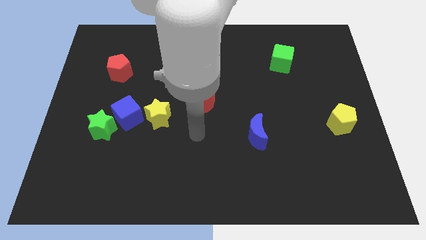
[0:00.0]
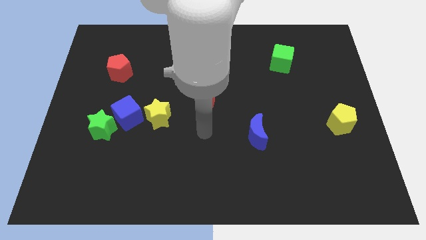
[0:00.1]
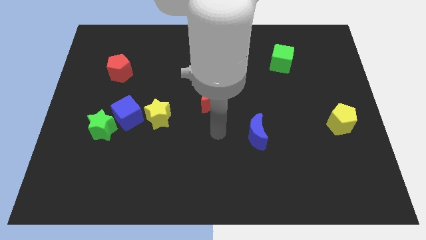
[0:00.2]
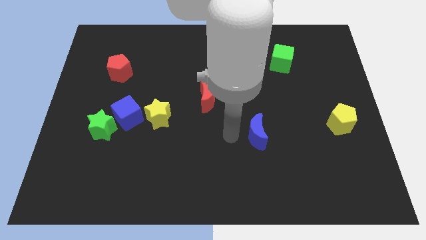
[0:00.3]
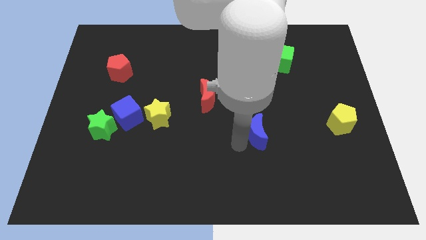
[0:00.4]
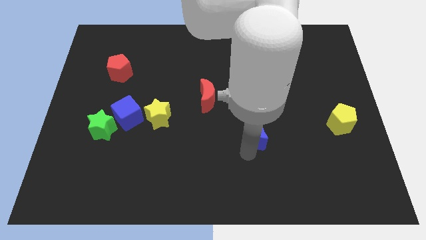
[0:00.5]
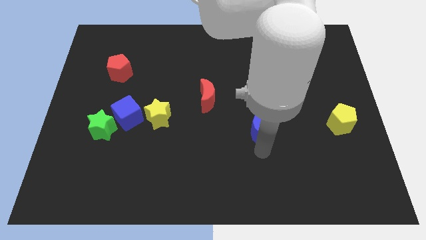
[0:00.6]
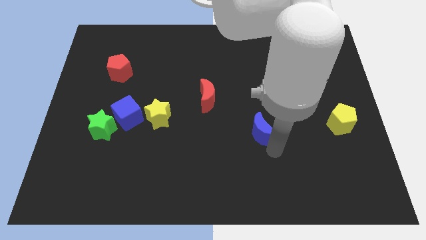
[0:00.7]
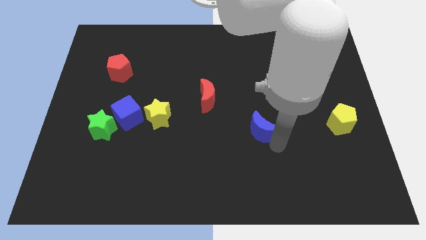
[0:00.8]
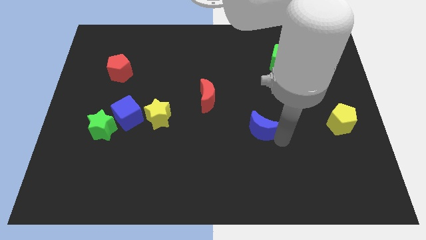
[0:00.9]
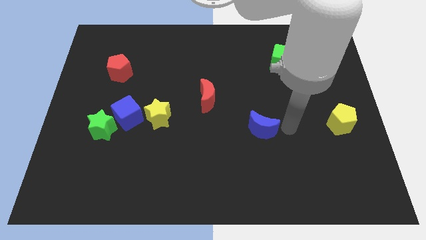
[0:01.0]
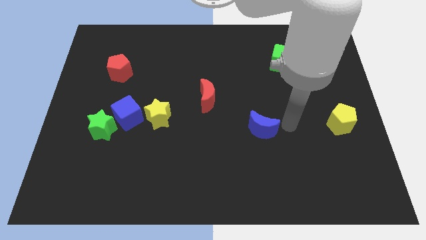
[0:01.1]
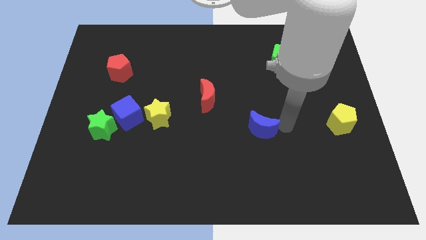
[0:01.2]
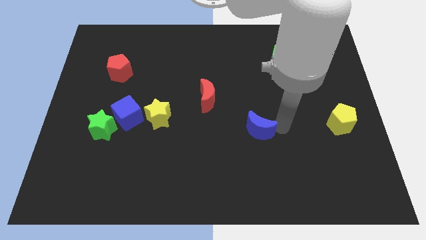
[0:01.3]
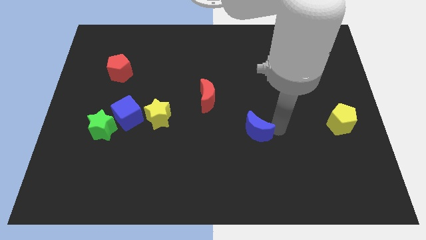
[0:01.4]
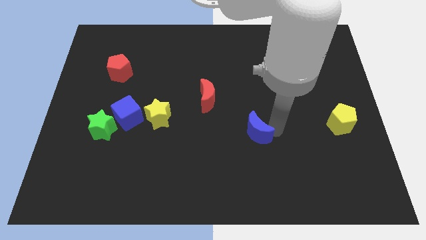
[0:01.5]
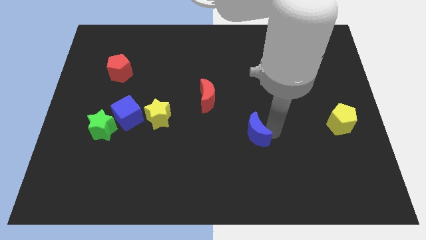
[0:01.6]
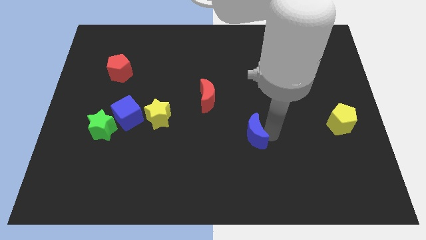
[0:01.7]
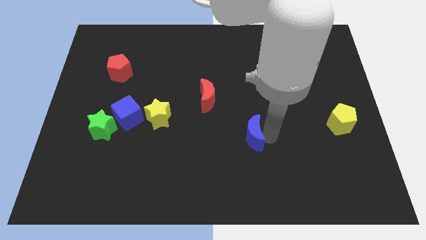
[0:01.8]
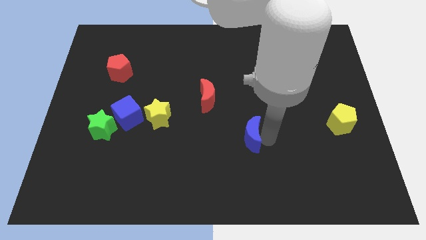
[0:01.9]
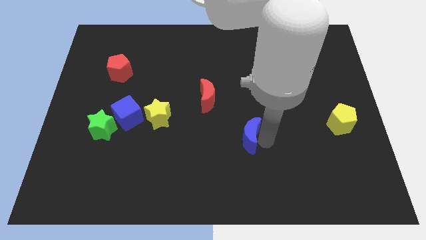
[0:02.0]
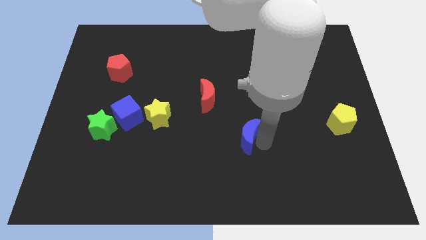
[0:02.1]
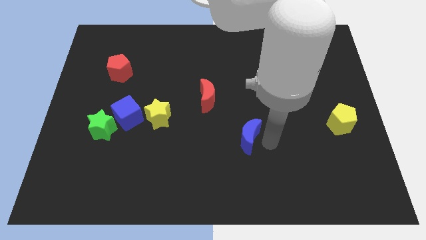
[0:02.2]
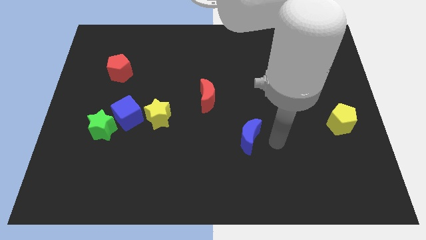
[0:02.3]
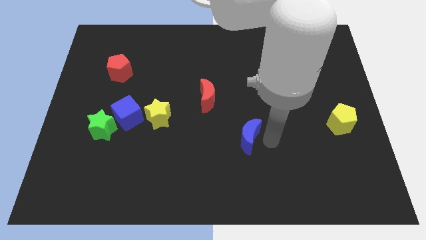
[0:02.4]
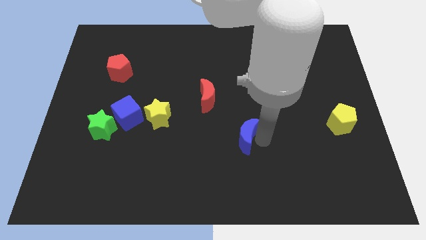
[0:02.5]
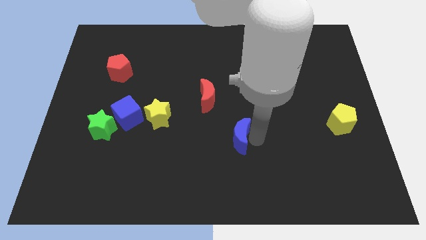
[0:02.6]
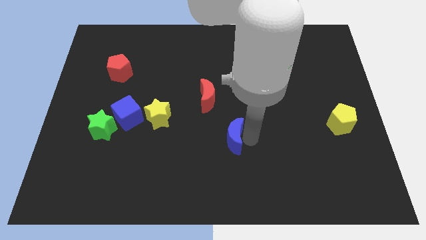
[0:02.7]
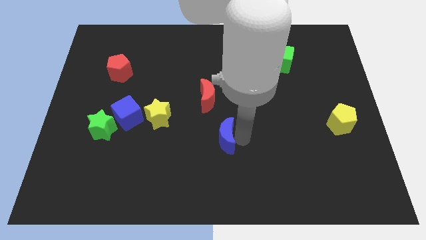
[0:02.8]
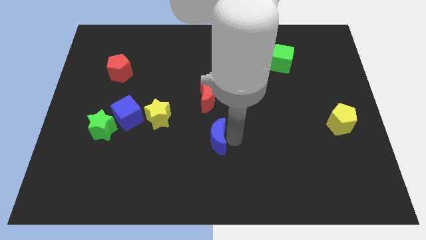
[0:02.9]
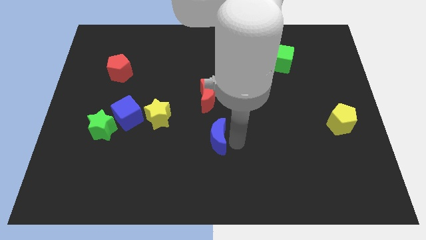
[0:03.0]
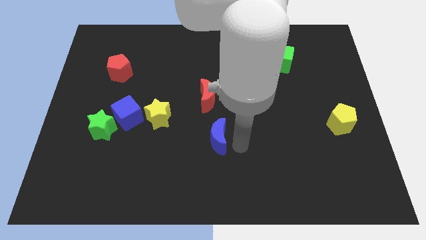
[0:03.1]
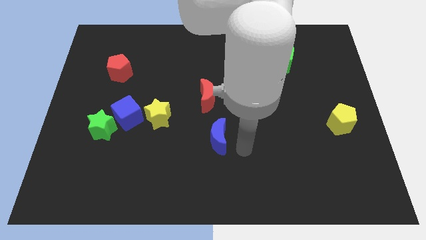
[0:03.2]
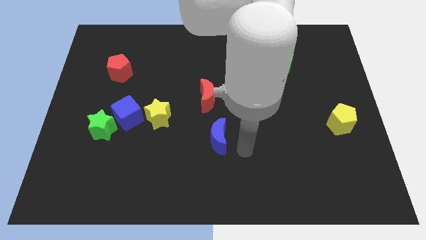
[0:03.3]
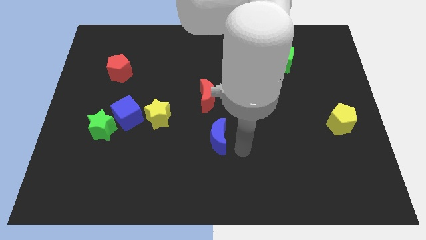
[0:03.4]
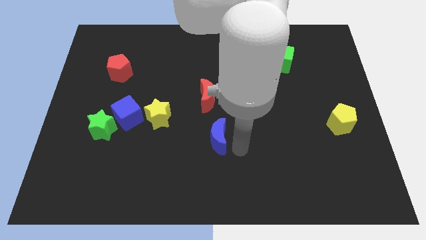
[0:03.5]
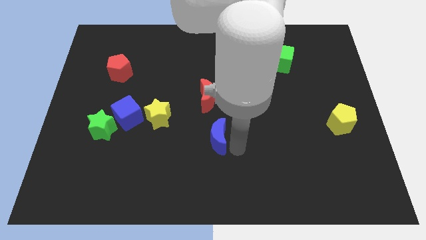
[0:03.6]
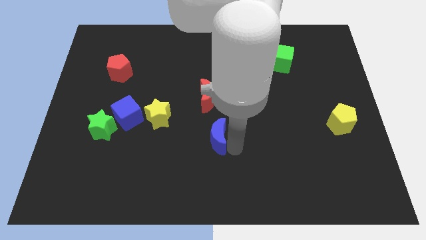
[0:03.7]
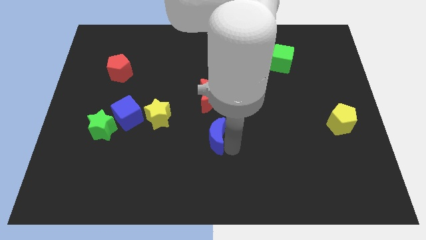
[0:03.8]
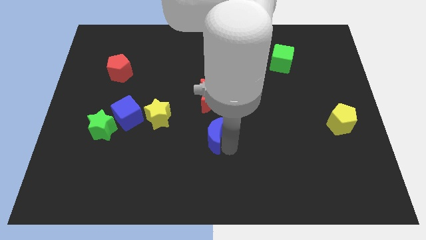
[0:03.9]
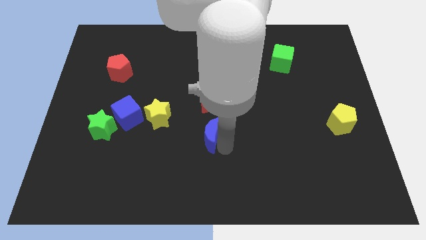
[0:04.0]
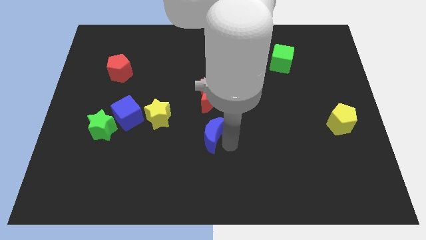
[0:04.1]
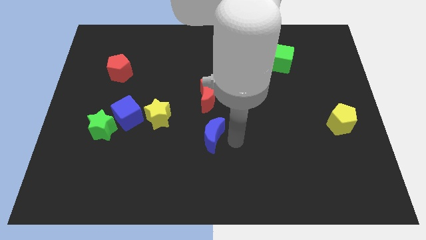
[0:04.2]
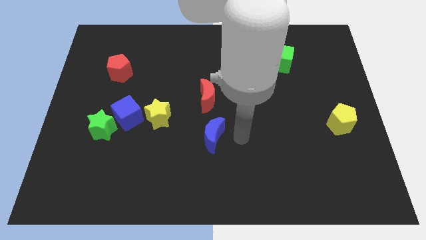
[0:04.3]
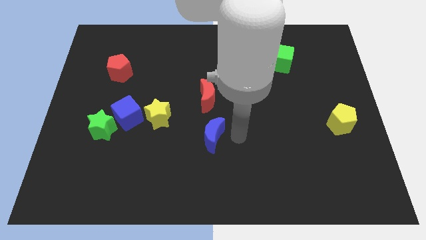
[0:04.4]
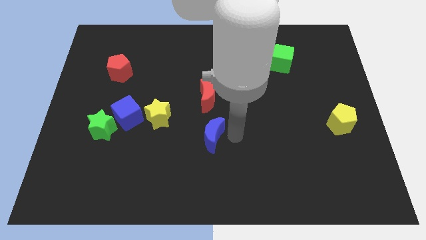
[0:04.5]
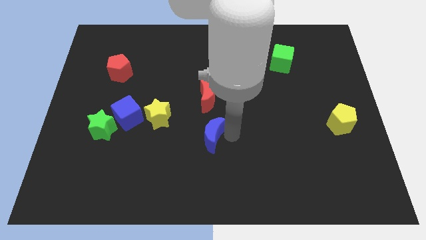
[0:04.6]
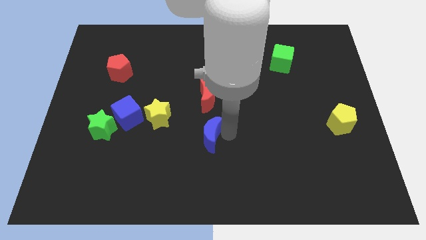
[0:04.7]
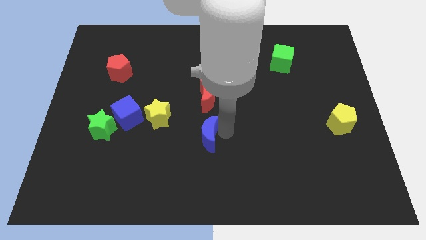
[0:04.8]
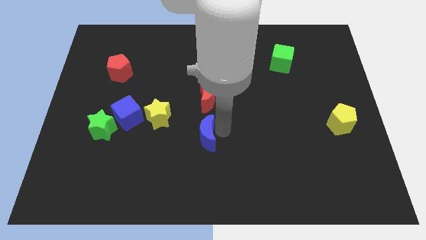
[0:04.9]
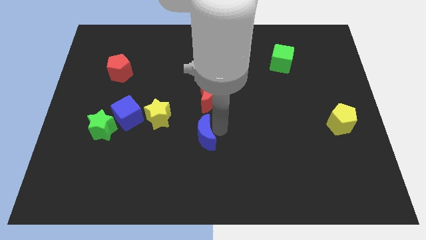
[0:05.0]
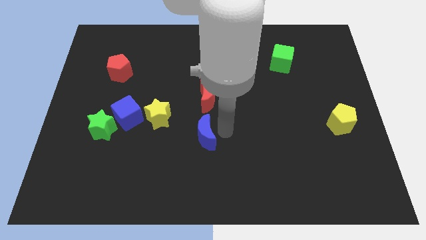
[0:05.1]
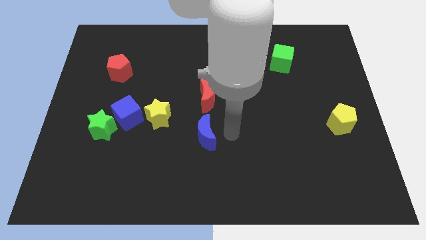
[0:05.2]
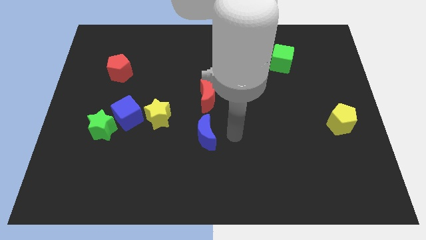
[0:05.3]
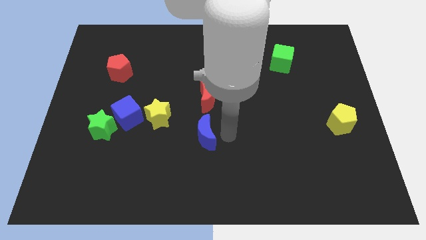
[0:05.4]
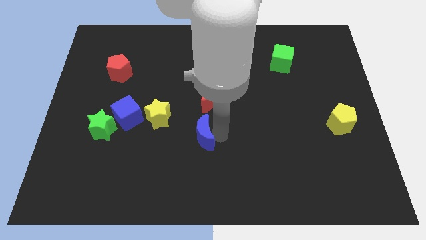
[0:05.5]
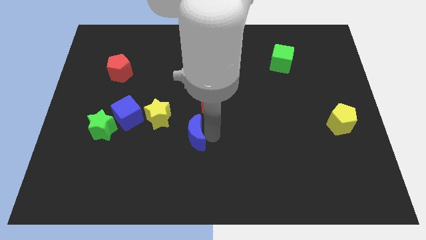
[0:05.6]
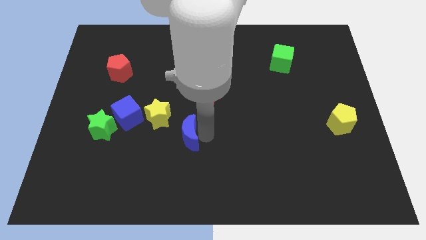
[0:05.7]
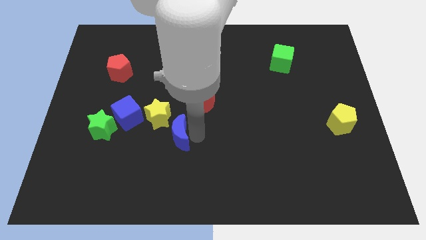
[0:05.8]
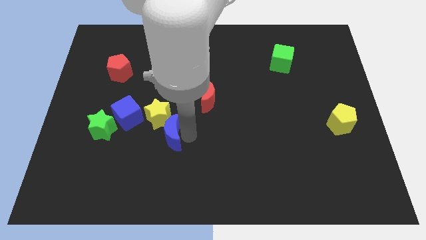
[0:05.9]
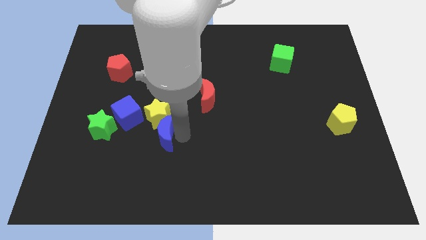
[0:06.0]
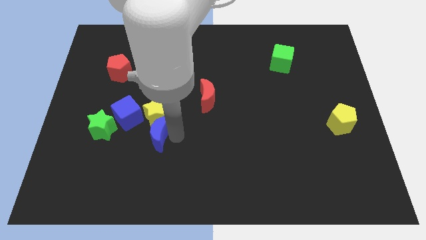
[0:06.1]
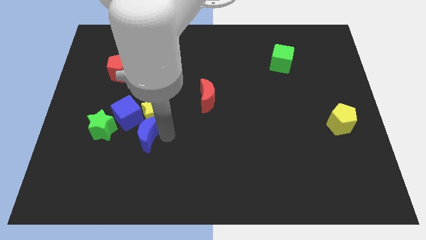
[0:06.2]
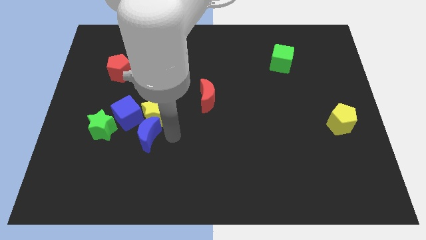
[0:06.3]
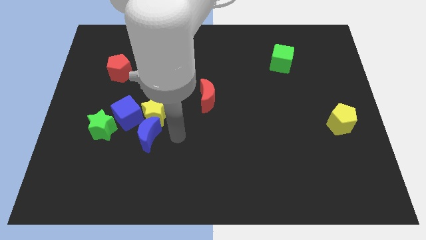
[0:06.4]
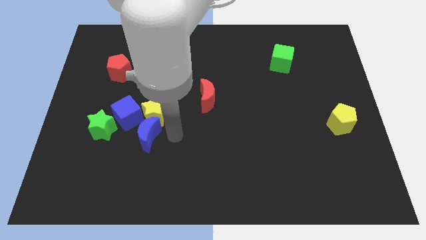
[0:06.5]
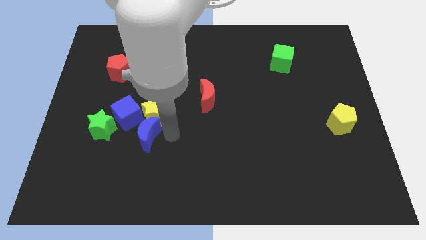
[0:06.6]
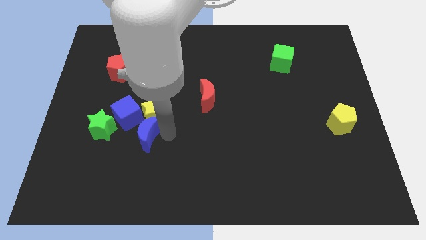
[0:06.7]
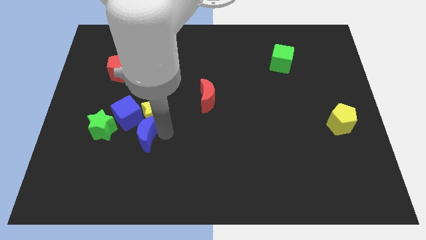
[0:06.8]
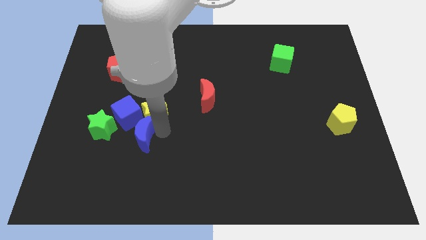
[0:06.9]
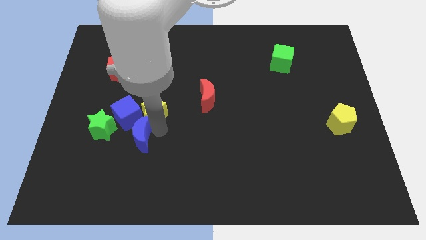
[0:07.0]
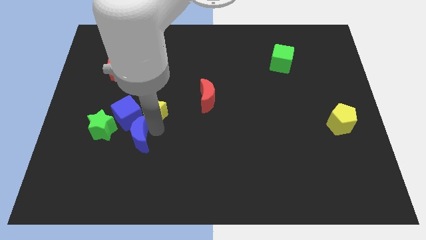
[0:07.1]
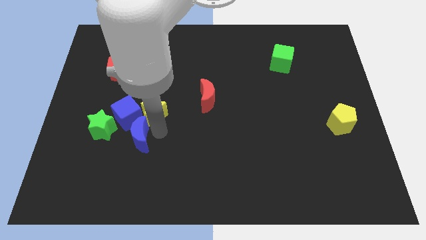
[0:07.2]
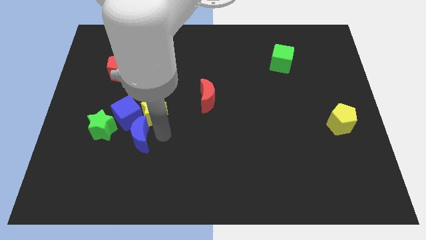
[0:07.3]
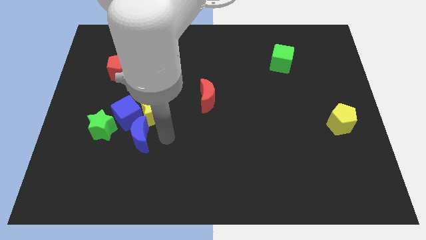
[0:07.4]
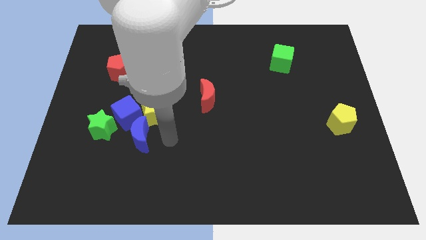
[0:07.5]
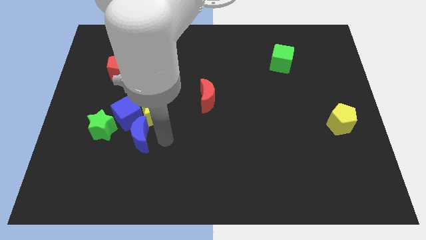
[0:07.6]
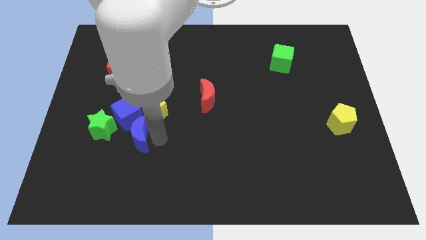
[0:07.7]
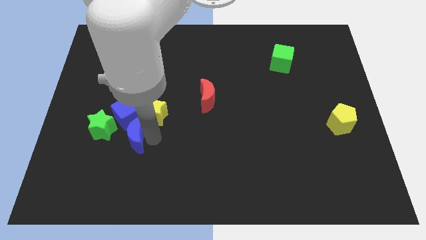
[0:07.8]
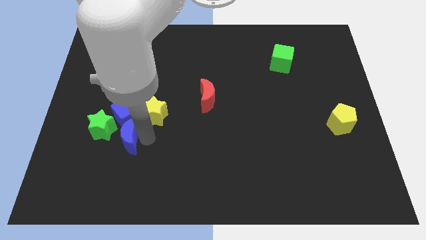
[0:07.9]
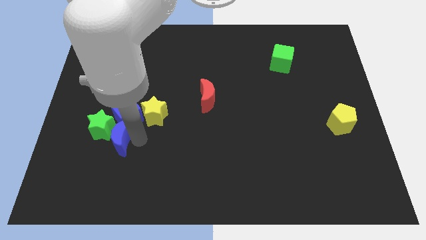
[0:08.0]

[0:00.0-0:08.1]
slide the blue moon next to the green star
